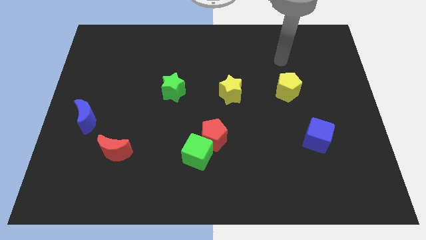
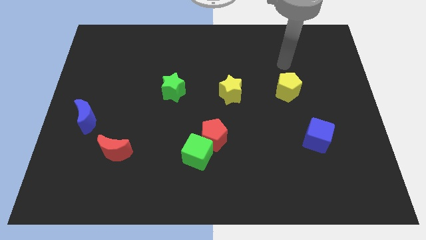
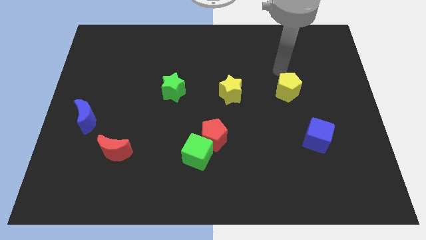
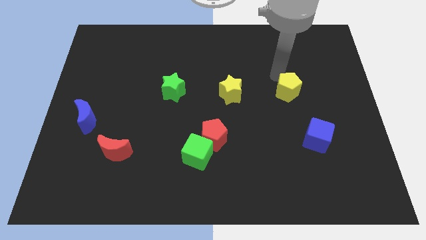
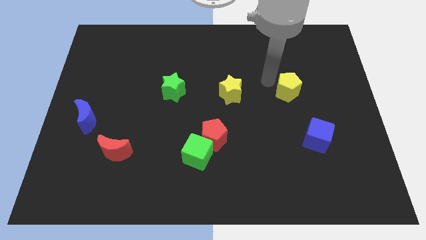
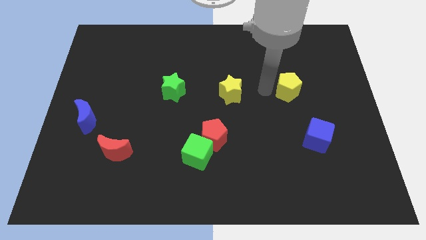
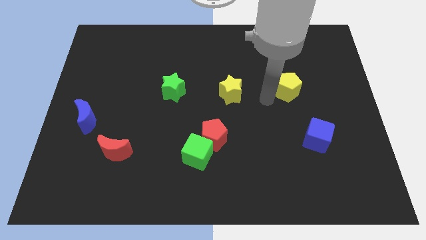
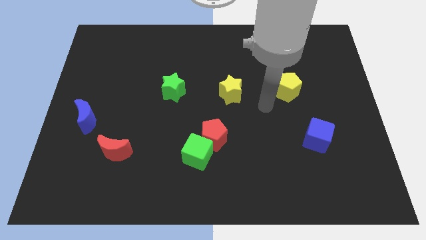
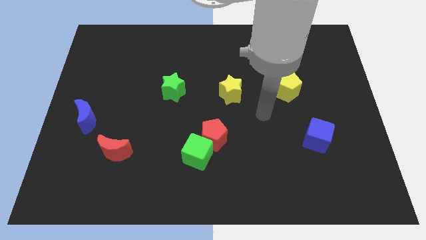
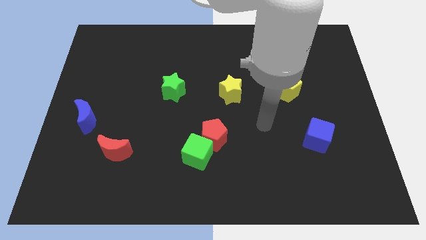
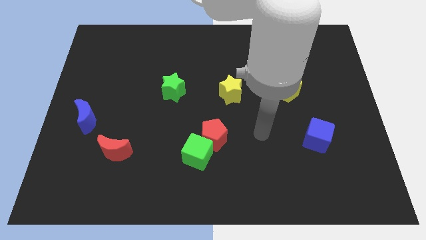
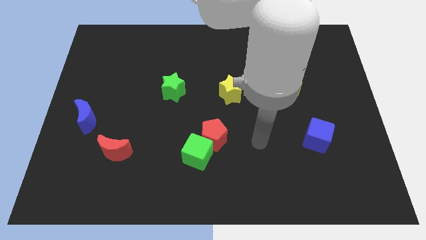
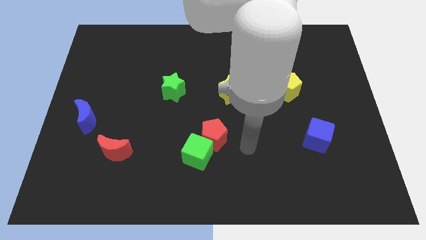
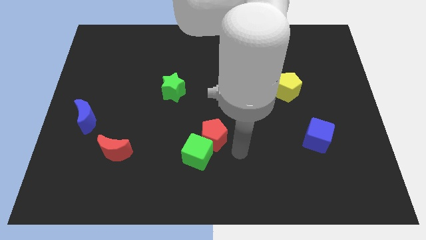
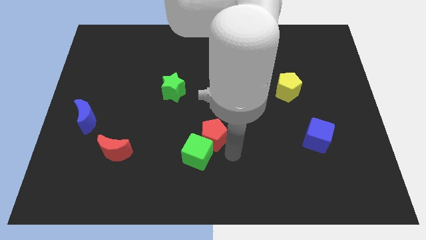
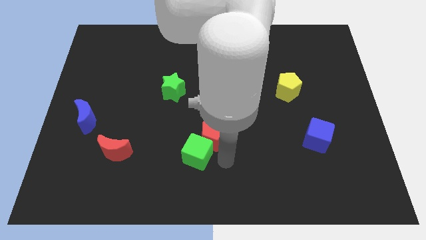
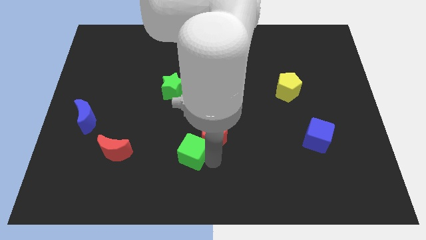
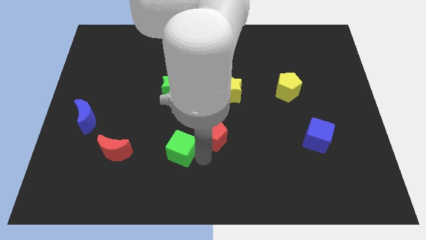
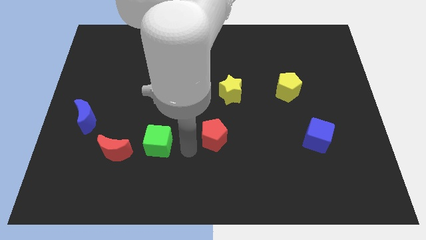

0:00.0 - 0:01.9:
move the red pentagon away from the green cube

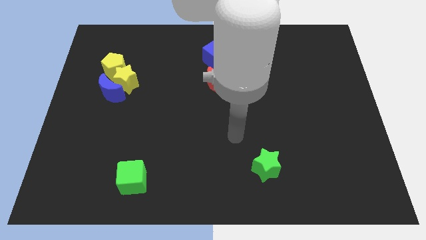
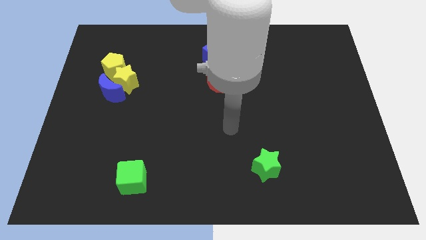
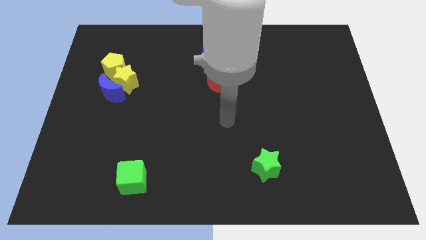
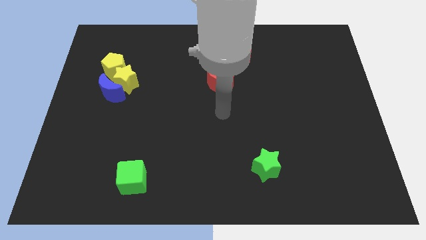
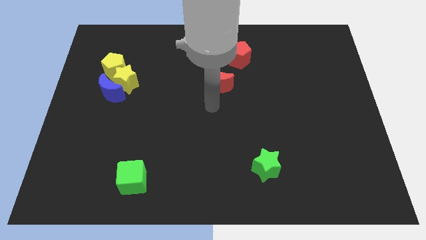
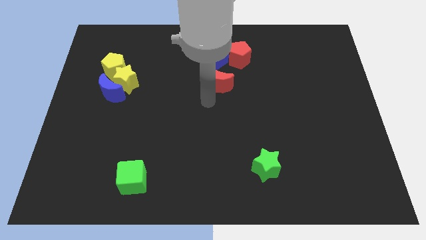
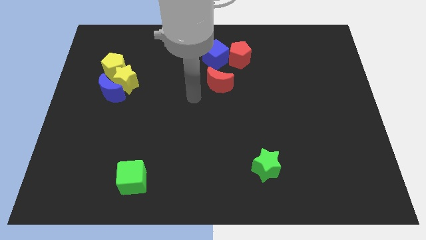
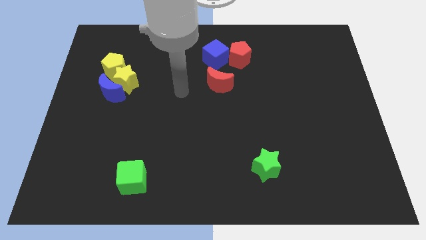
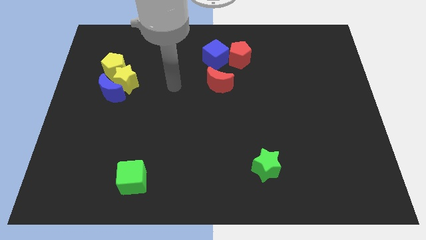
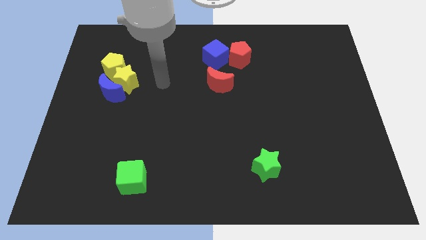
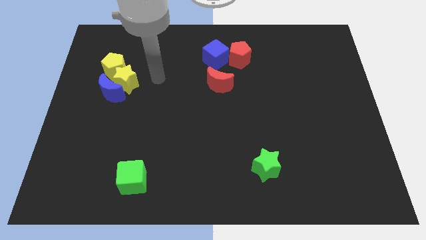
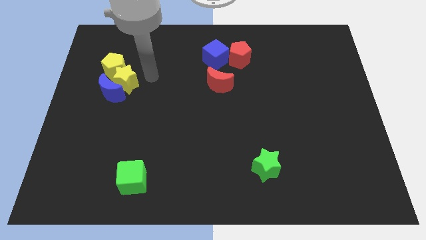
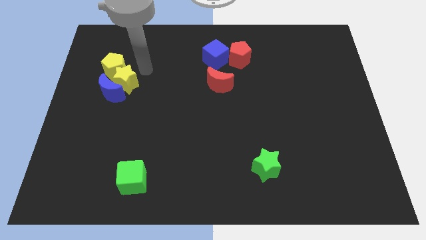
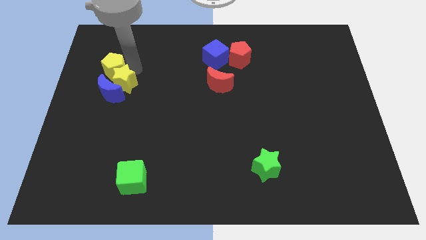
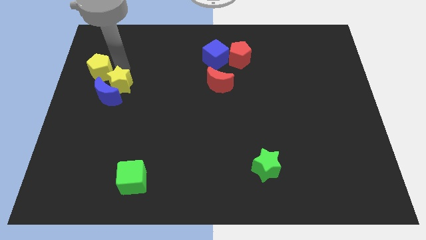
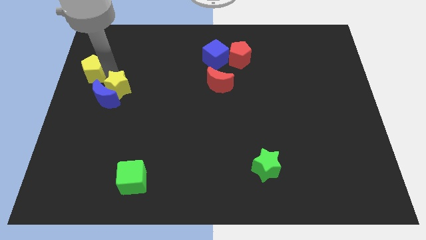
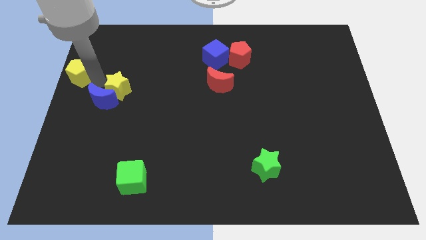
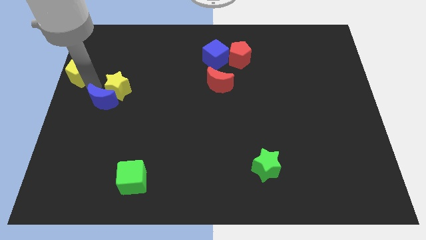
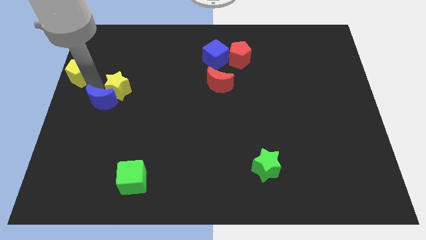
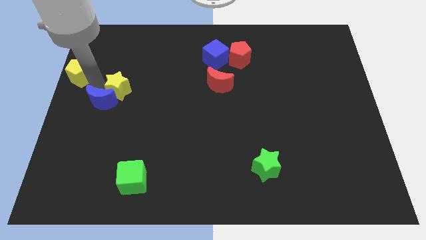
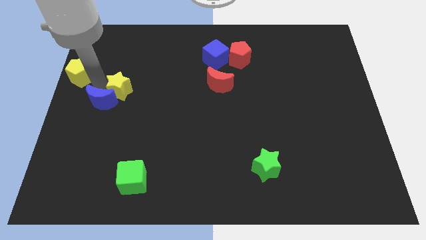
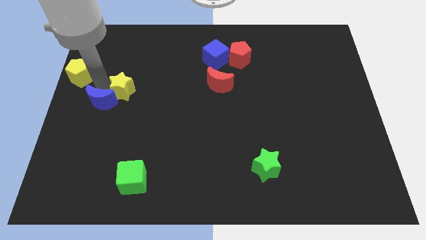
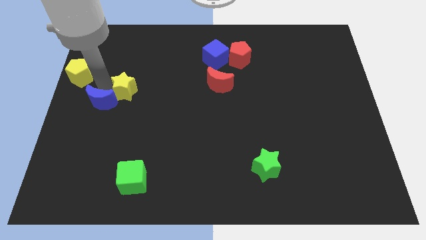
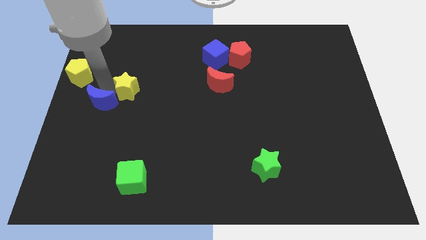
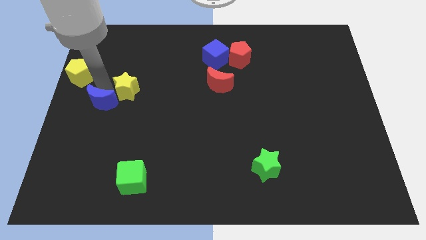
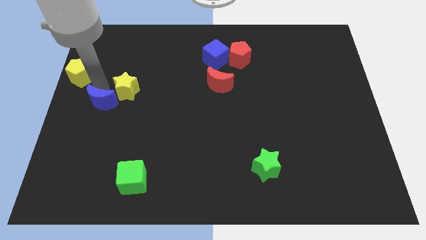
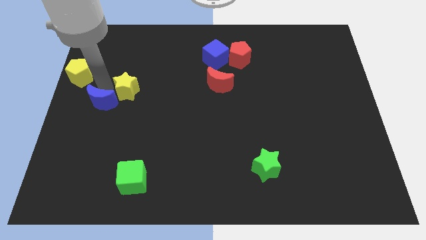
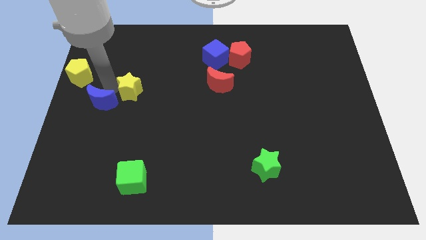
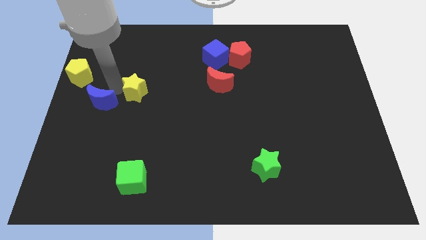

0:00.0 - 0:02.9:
move the yellow star away from the blue moon and yellow pentagon

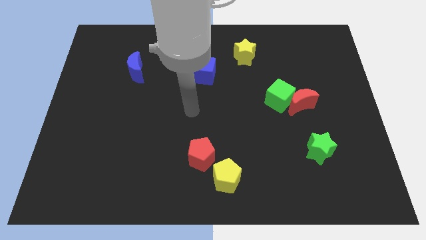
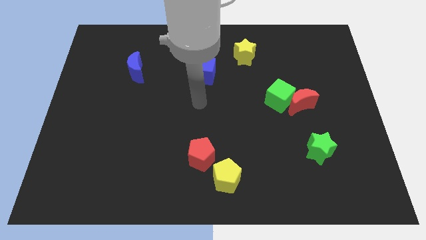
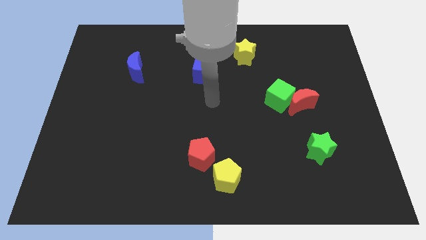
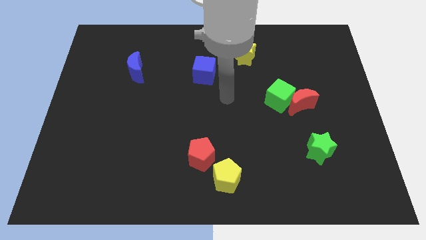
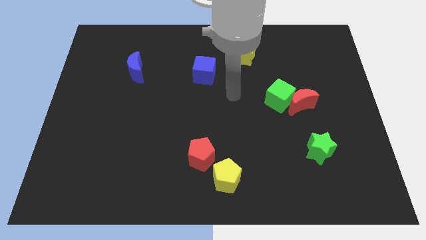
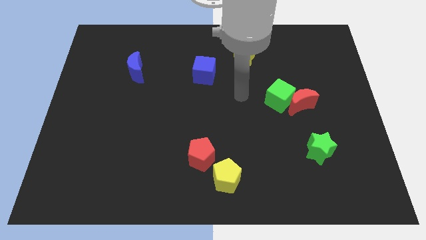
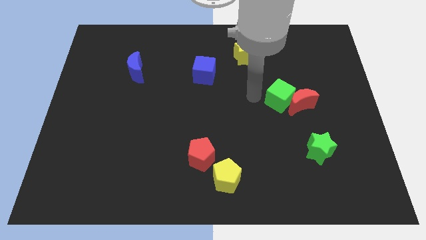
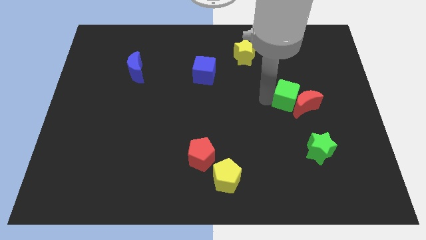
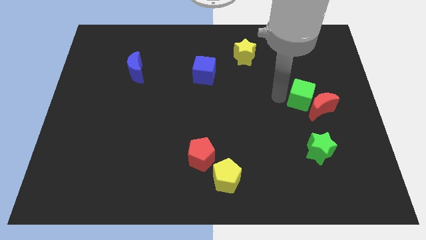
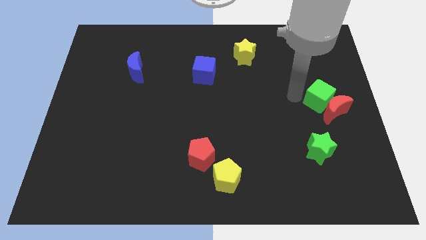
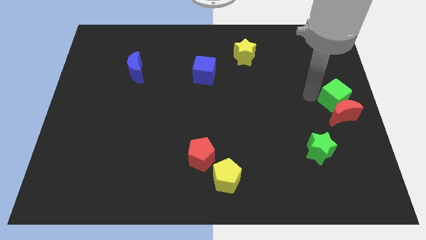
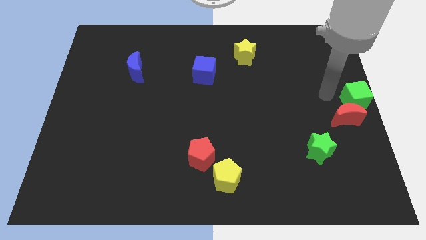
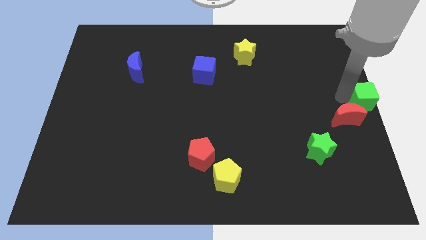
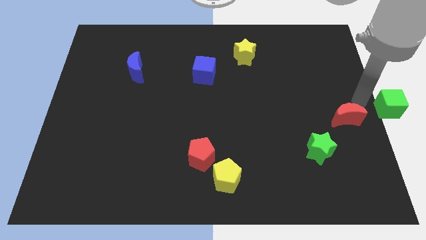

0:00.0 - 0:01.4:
separate the red moon from the green cube

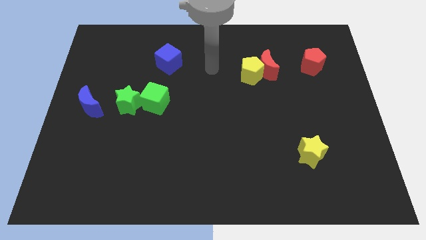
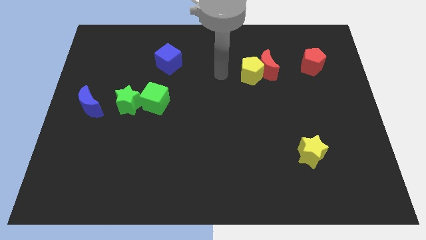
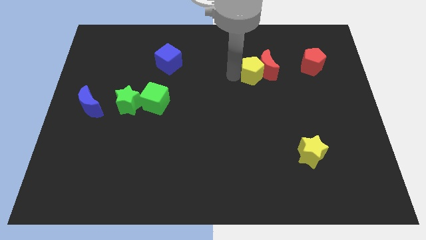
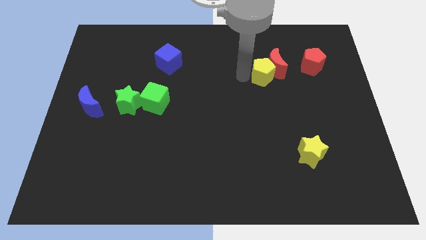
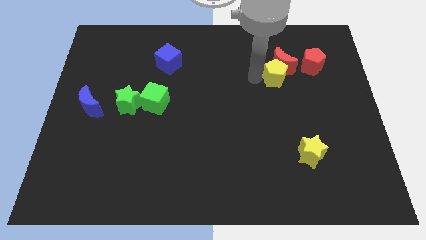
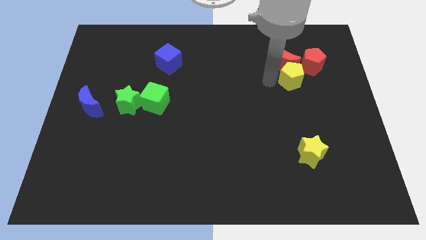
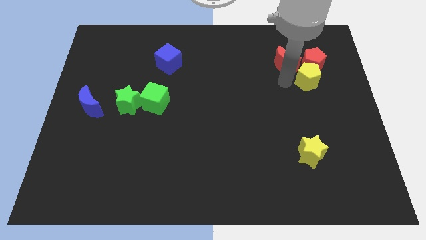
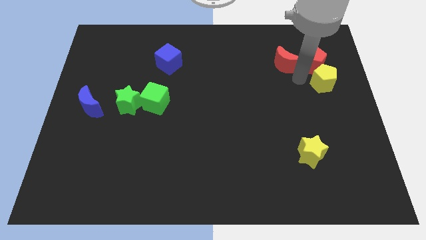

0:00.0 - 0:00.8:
pull the red moon apart from the yellow pentagon

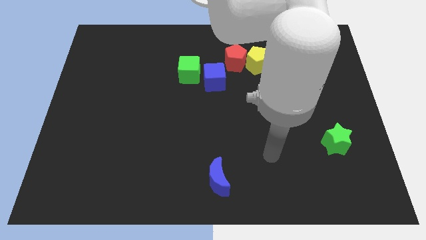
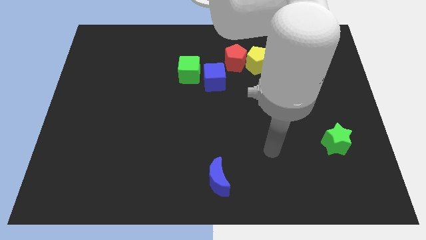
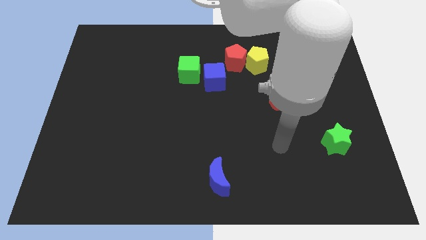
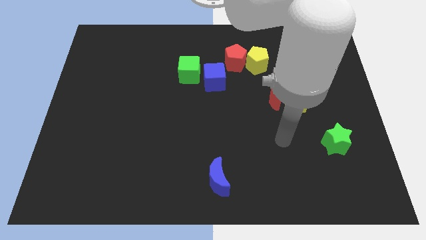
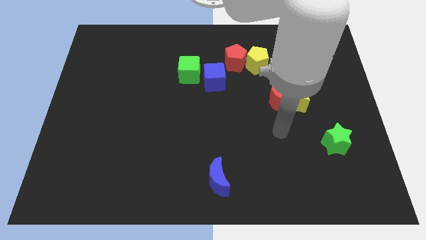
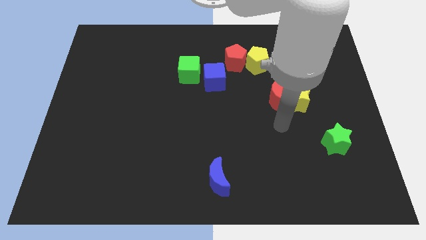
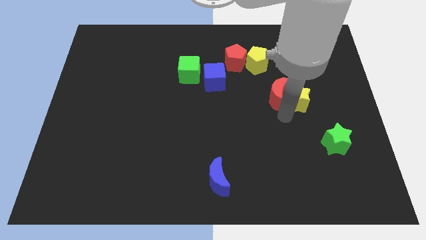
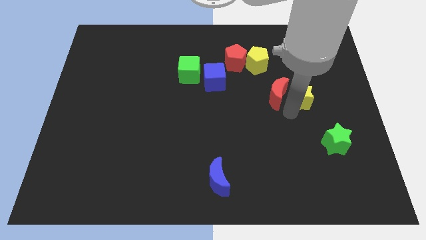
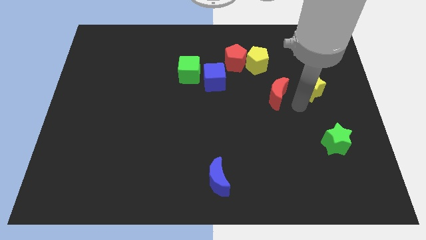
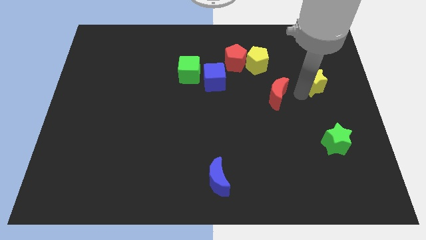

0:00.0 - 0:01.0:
separate the red moon from the yellow star

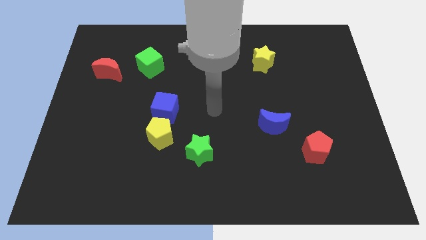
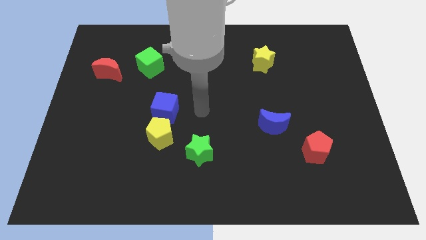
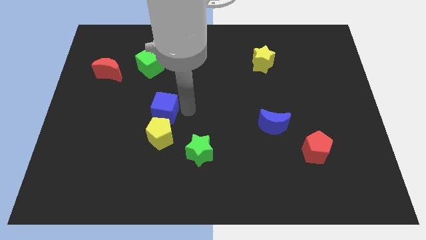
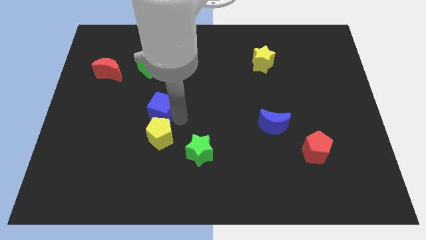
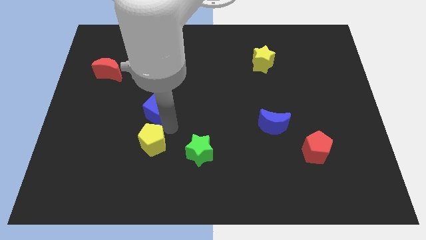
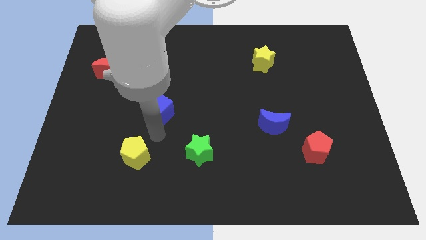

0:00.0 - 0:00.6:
pull the blue cube apart from the yellow pentagon

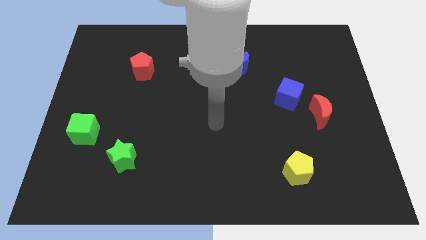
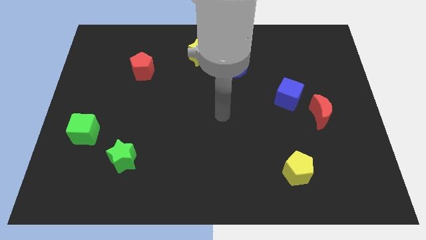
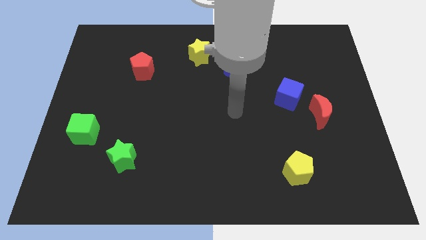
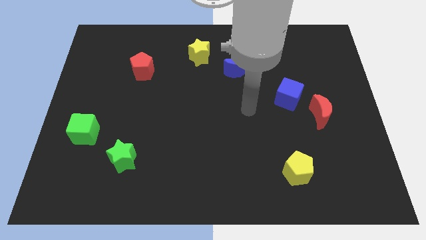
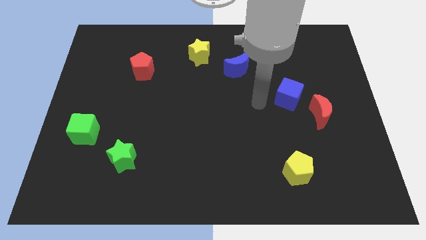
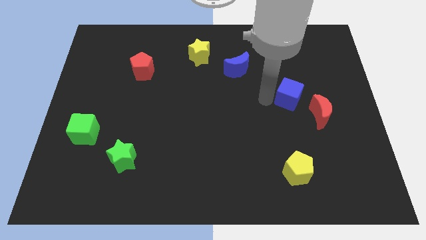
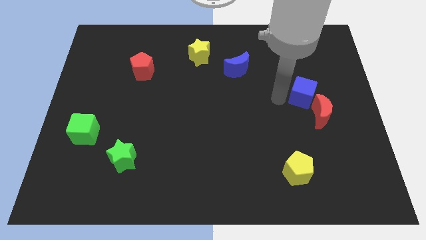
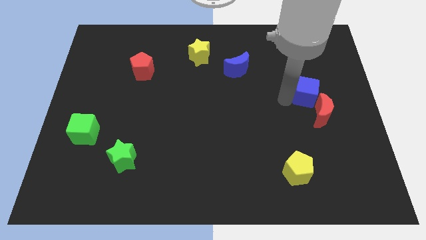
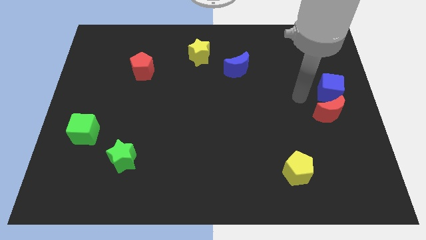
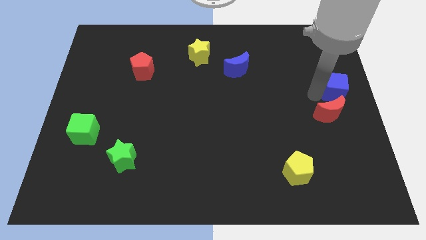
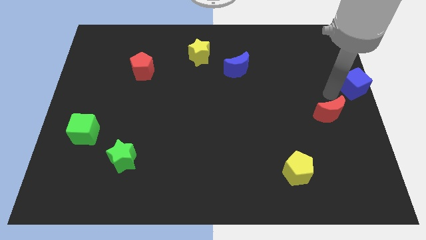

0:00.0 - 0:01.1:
separate the red moon from the blue cube
